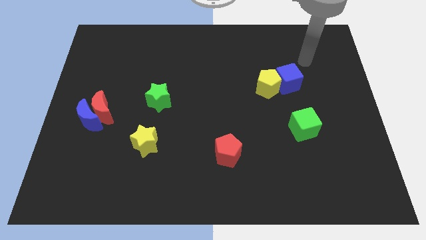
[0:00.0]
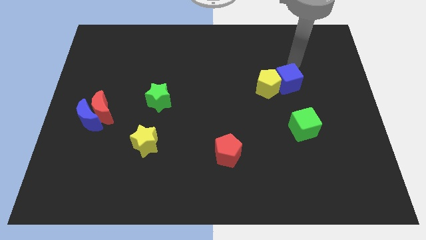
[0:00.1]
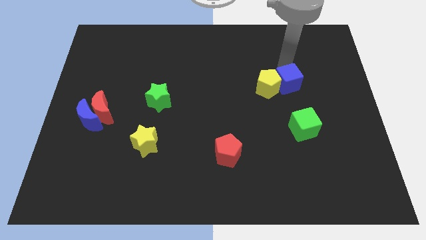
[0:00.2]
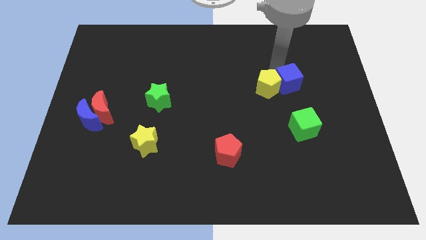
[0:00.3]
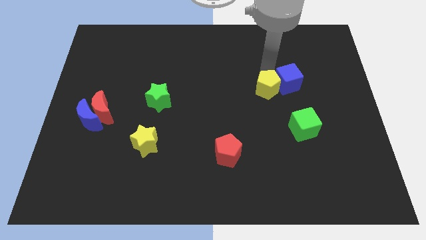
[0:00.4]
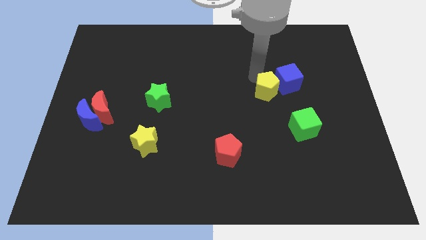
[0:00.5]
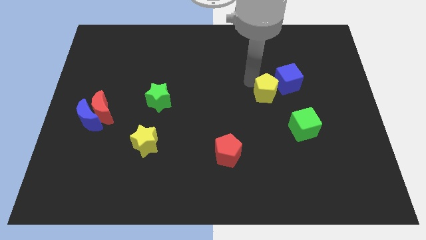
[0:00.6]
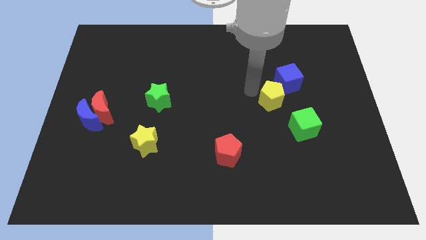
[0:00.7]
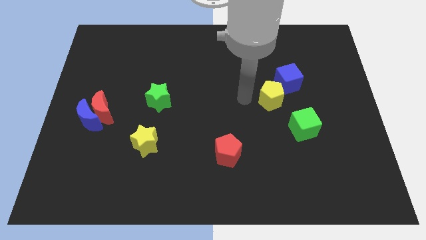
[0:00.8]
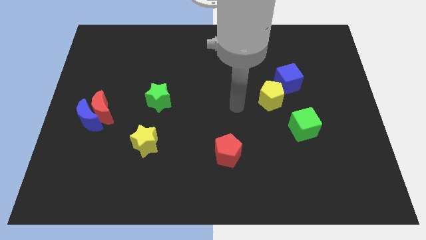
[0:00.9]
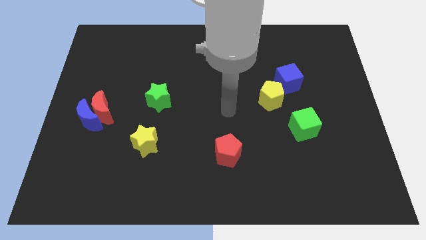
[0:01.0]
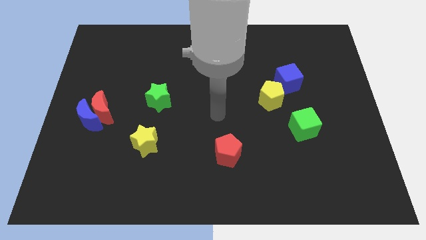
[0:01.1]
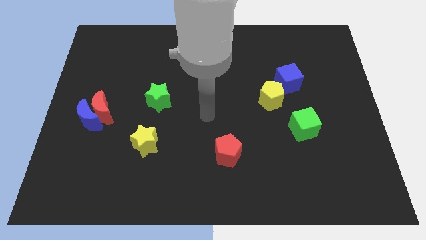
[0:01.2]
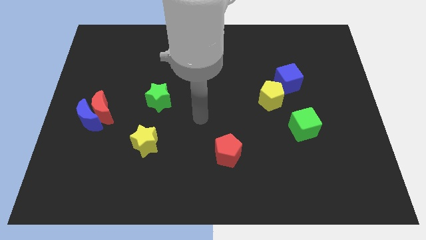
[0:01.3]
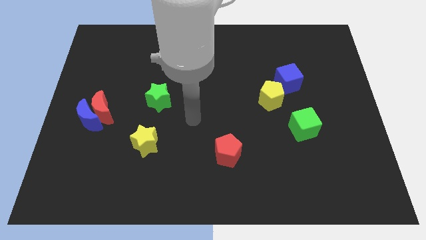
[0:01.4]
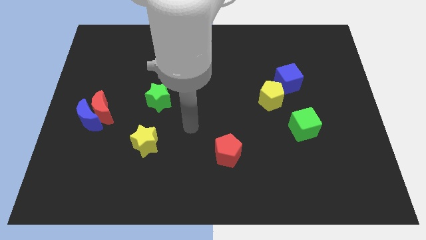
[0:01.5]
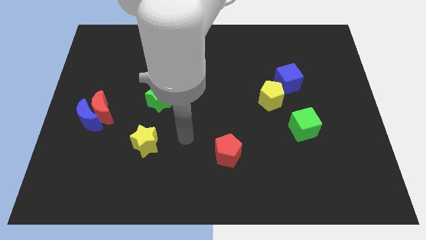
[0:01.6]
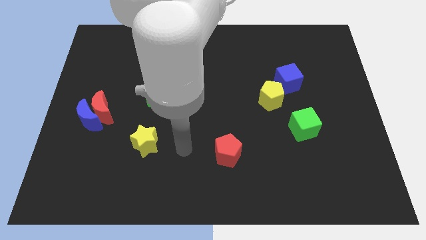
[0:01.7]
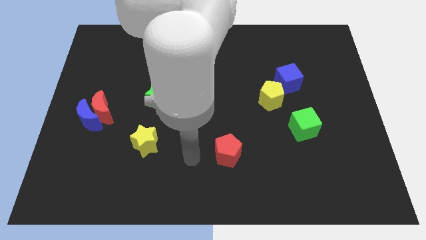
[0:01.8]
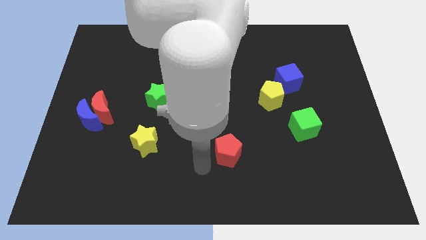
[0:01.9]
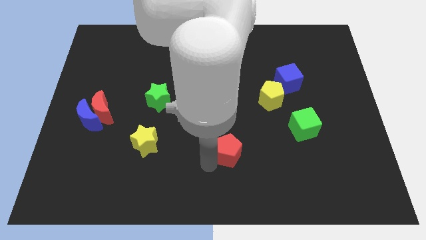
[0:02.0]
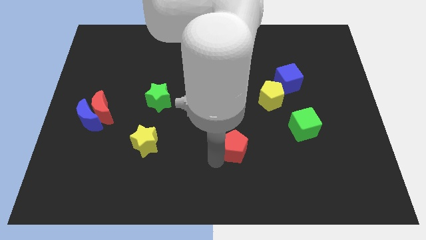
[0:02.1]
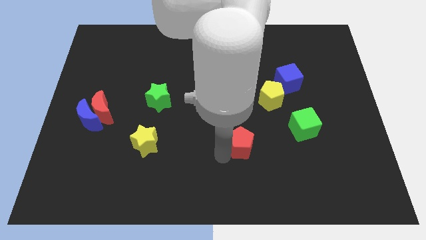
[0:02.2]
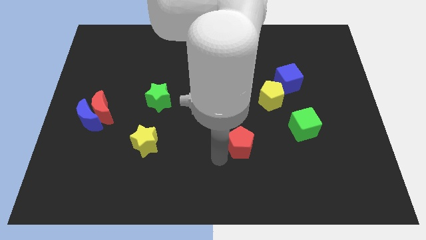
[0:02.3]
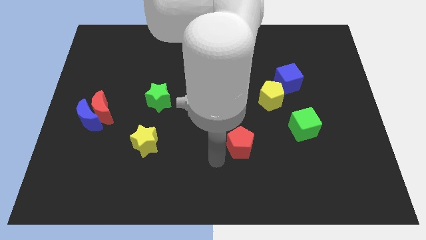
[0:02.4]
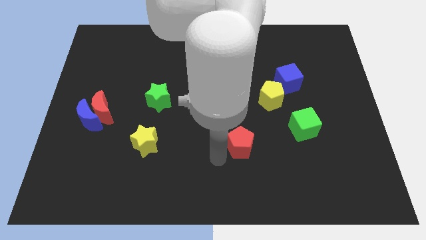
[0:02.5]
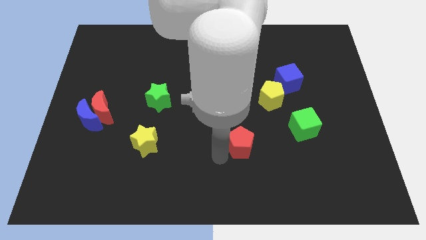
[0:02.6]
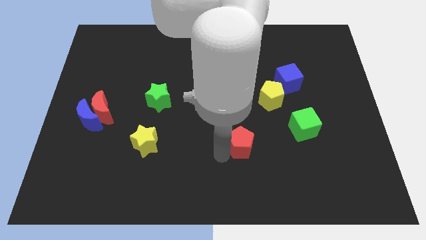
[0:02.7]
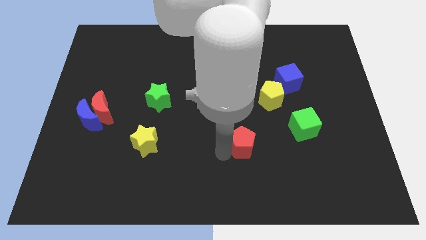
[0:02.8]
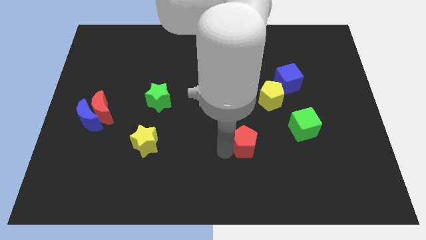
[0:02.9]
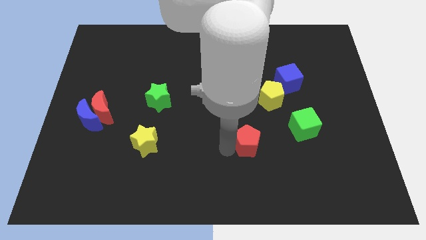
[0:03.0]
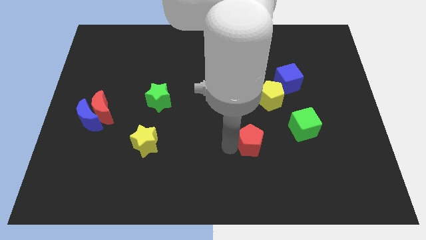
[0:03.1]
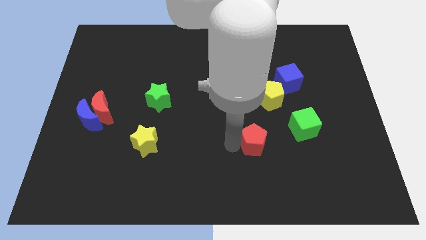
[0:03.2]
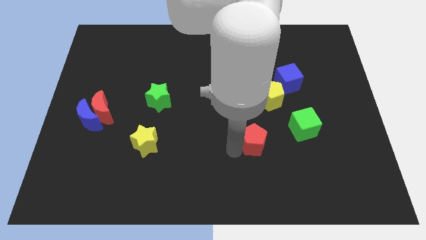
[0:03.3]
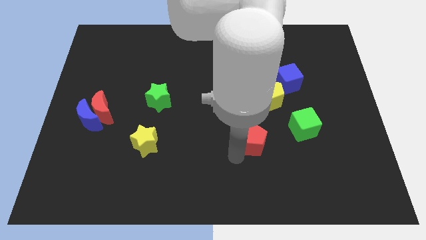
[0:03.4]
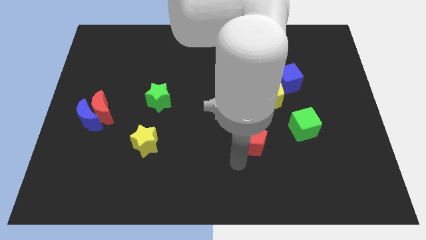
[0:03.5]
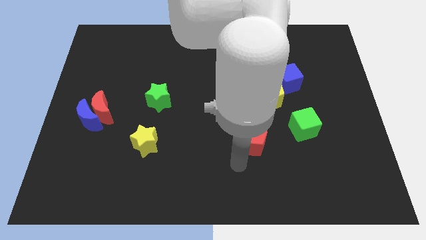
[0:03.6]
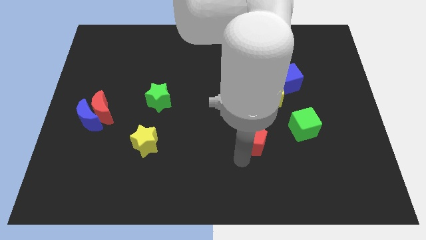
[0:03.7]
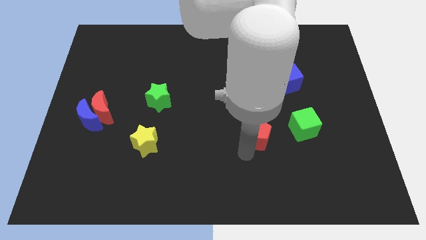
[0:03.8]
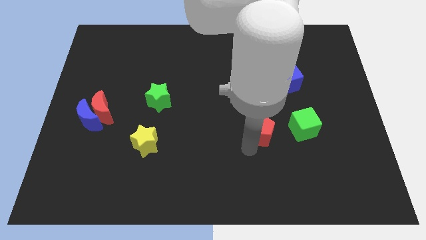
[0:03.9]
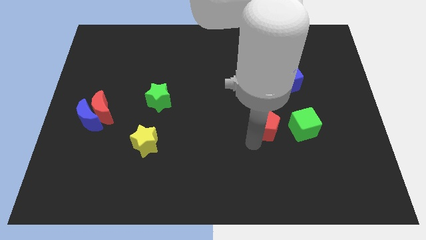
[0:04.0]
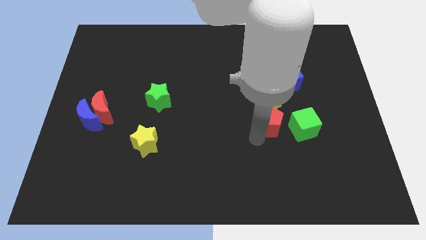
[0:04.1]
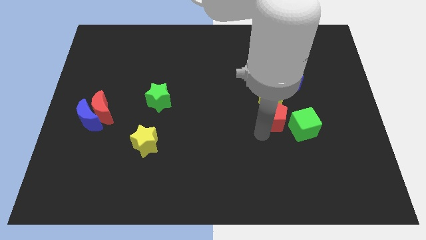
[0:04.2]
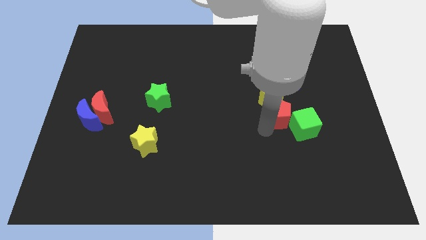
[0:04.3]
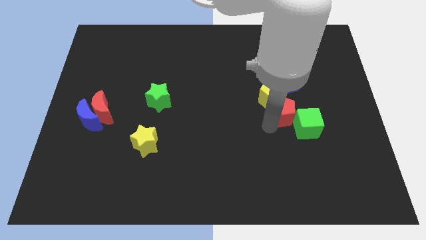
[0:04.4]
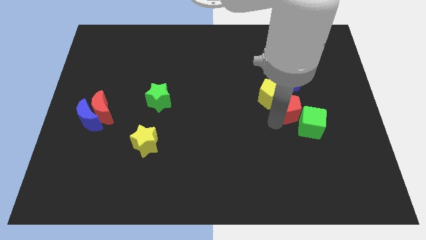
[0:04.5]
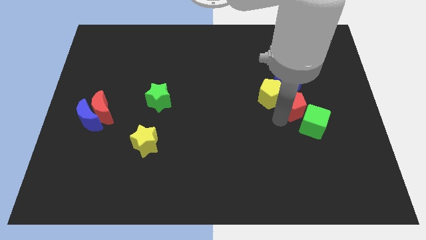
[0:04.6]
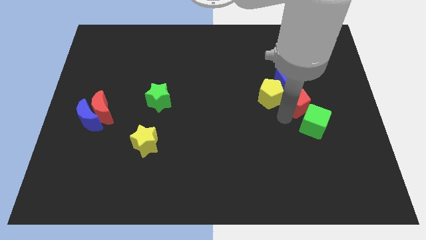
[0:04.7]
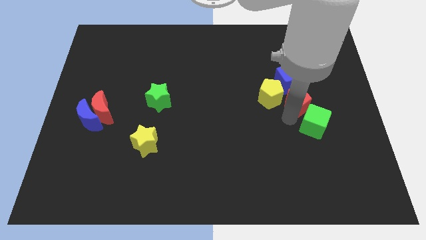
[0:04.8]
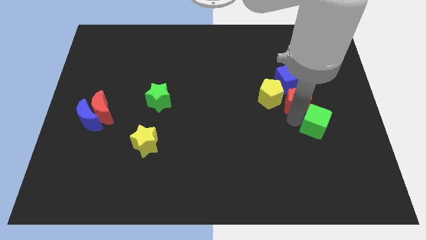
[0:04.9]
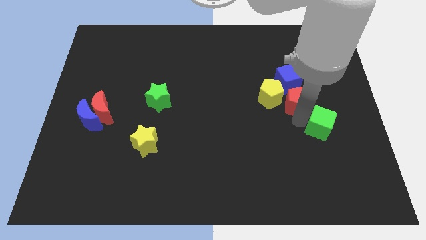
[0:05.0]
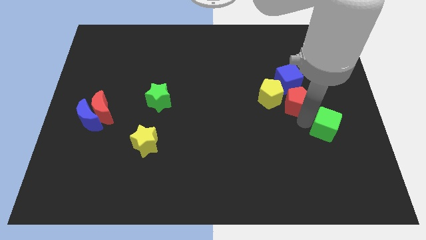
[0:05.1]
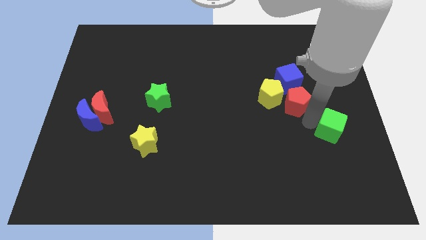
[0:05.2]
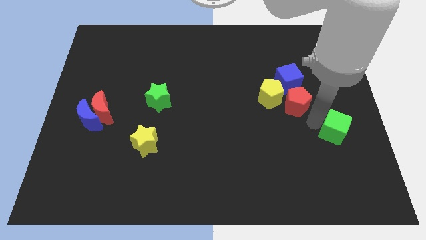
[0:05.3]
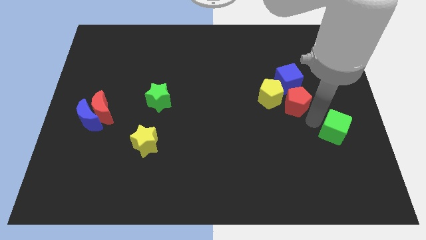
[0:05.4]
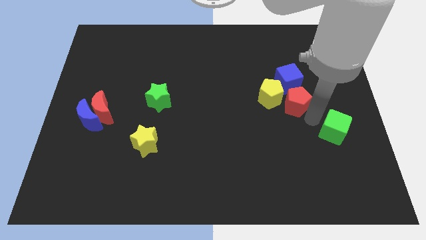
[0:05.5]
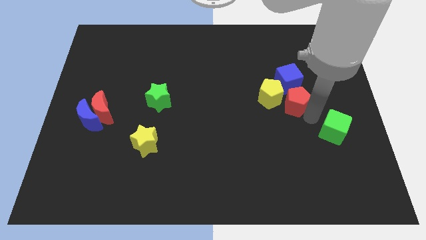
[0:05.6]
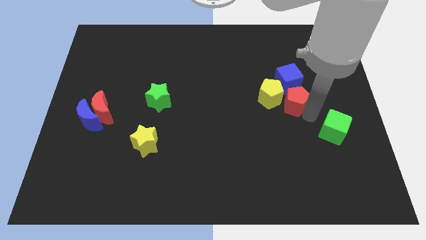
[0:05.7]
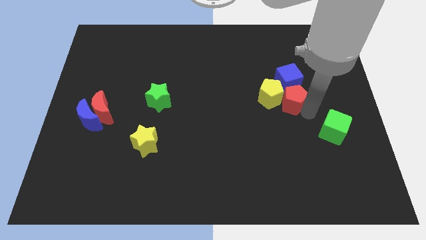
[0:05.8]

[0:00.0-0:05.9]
put the red pentagon close to the blue cube

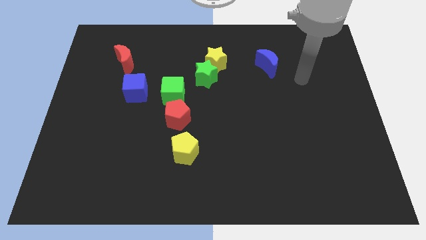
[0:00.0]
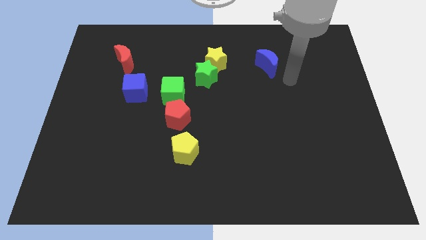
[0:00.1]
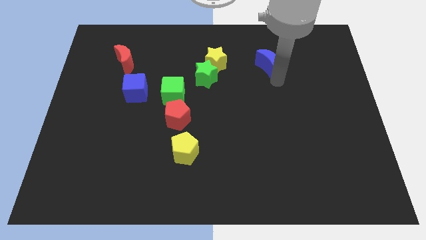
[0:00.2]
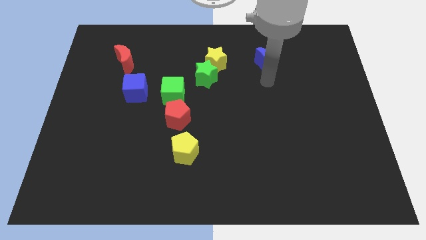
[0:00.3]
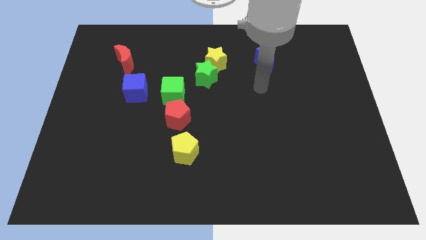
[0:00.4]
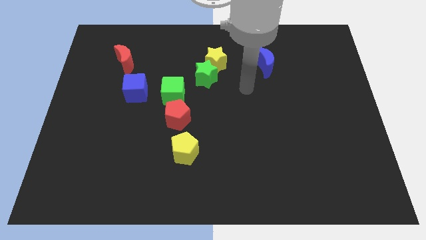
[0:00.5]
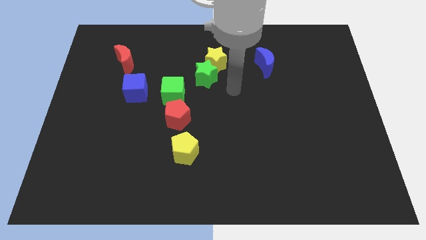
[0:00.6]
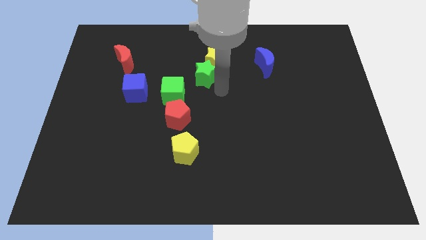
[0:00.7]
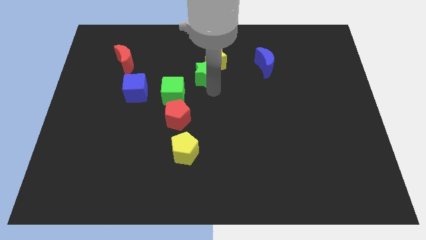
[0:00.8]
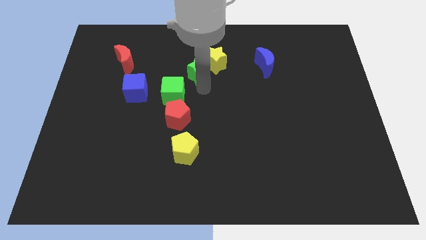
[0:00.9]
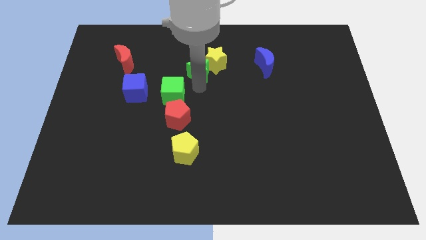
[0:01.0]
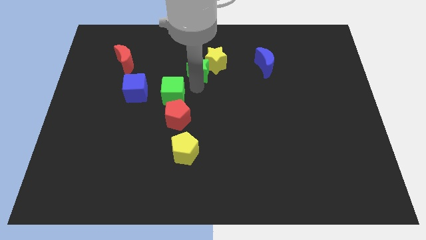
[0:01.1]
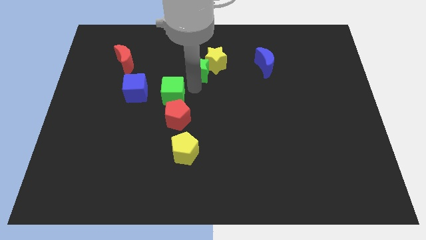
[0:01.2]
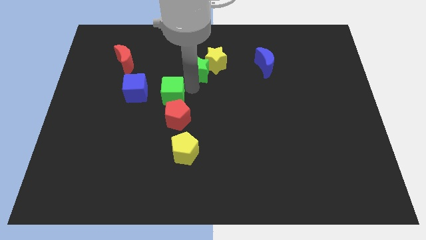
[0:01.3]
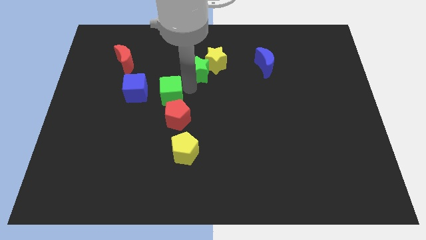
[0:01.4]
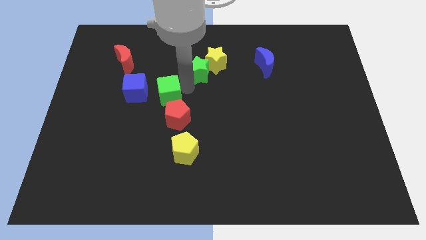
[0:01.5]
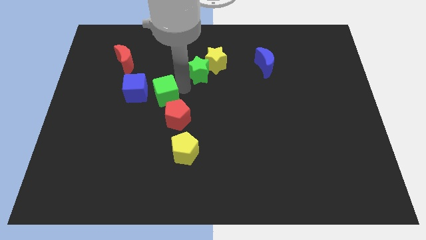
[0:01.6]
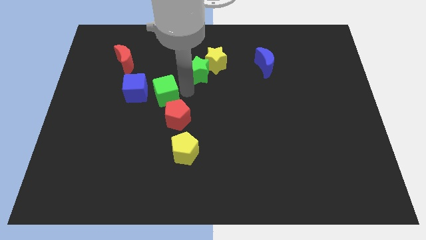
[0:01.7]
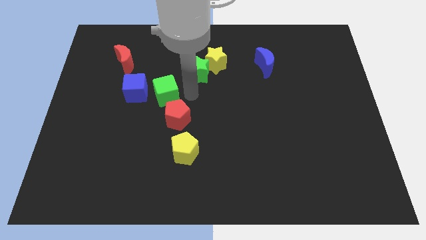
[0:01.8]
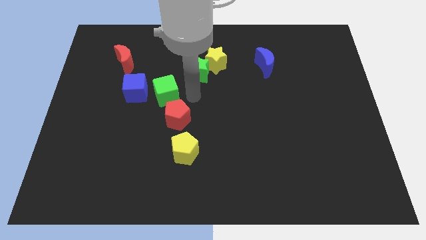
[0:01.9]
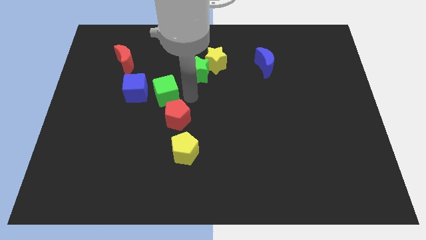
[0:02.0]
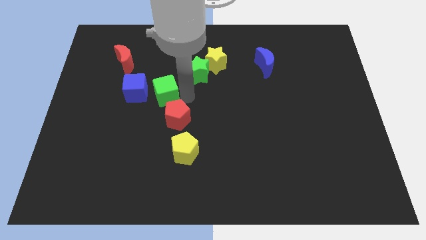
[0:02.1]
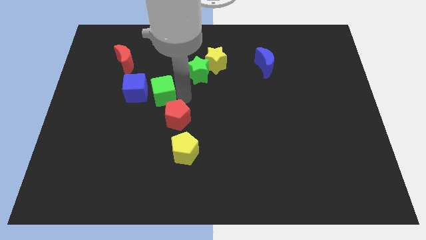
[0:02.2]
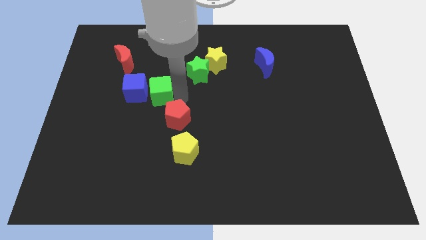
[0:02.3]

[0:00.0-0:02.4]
slide the green cube next to the blue cube
